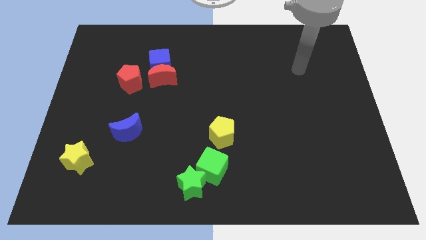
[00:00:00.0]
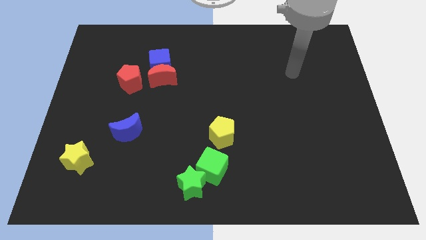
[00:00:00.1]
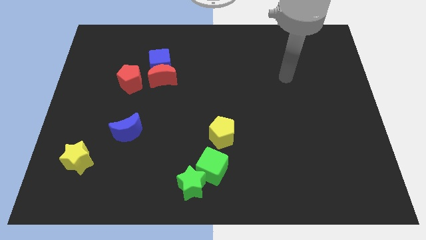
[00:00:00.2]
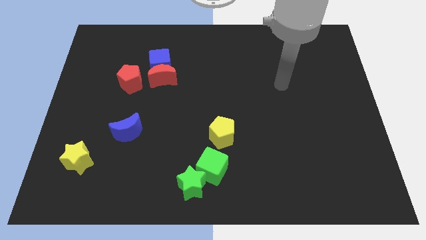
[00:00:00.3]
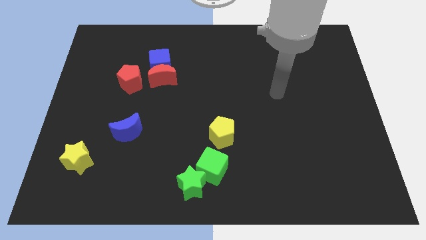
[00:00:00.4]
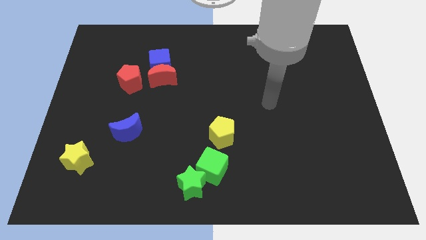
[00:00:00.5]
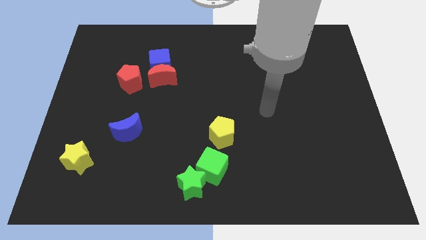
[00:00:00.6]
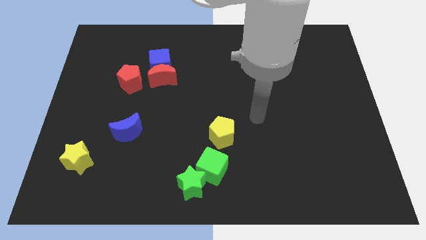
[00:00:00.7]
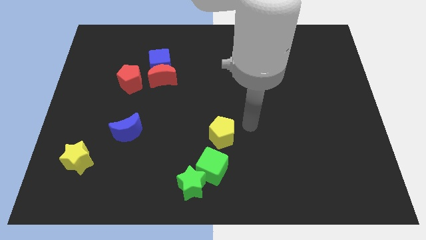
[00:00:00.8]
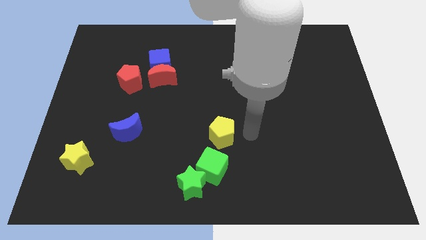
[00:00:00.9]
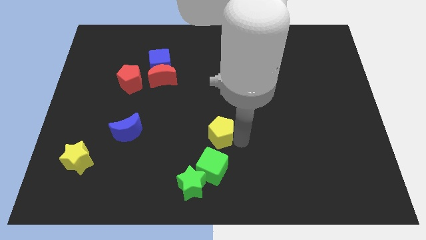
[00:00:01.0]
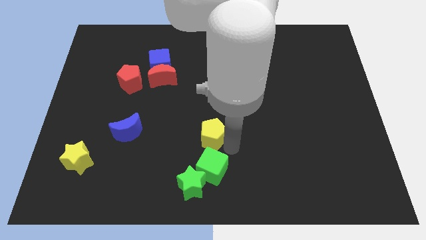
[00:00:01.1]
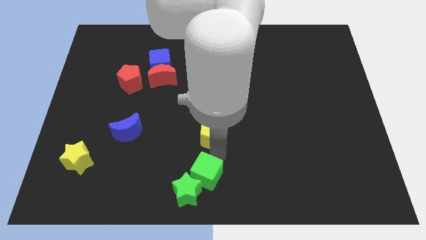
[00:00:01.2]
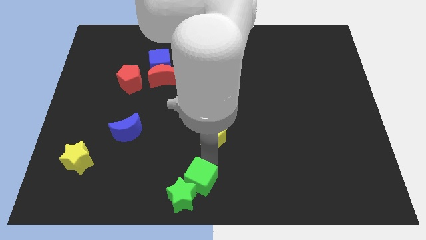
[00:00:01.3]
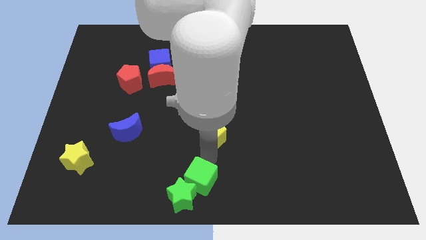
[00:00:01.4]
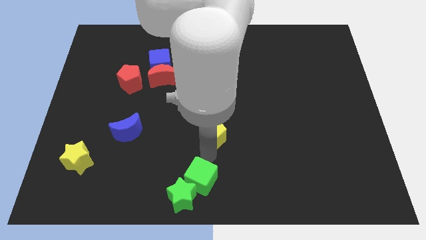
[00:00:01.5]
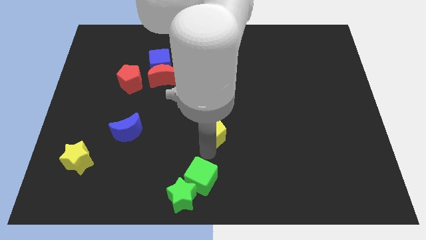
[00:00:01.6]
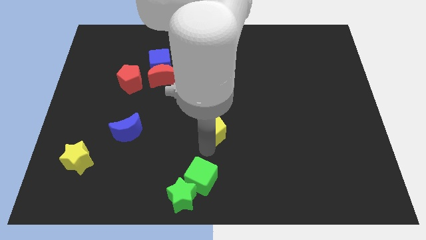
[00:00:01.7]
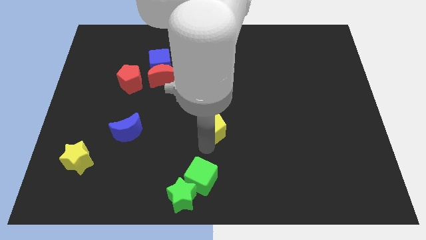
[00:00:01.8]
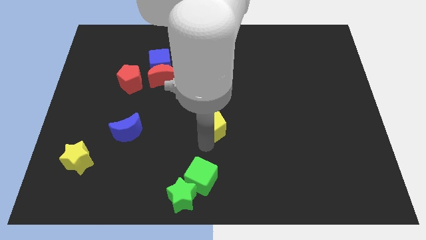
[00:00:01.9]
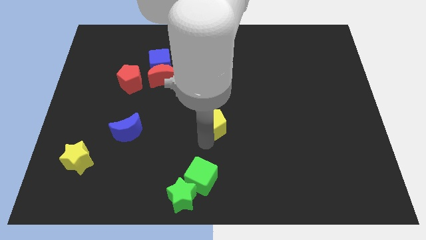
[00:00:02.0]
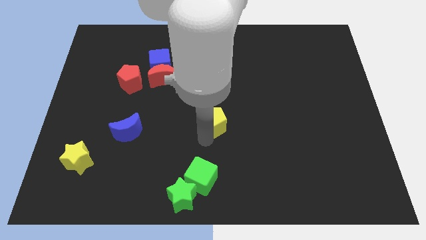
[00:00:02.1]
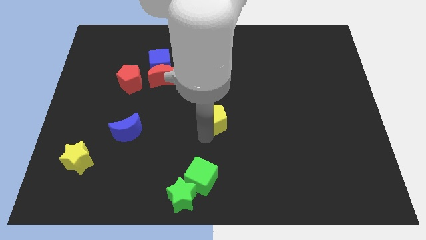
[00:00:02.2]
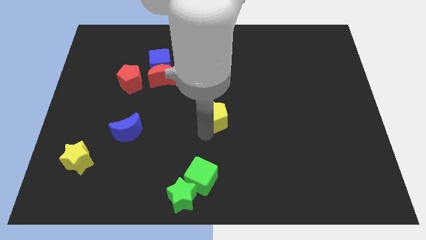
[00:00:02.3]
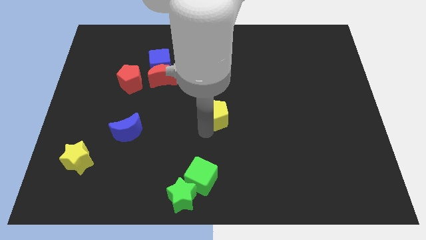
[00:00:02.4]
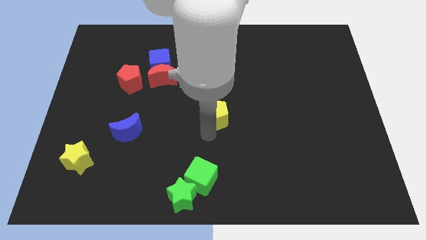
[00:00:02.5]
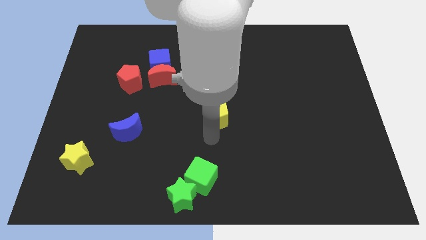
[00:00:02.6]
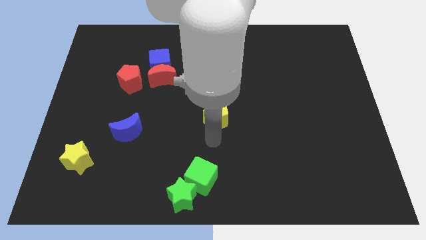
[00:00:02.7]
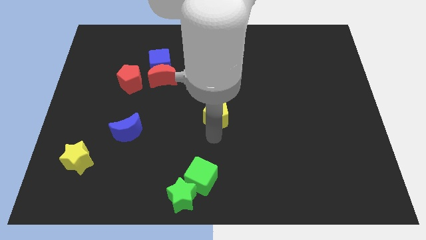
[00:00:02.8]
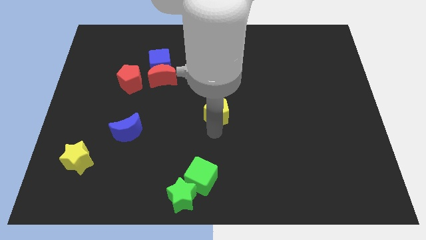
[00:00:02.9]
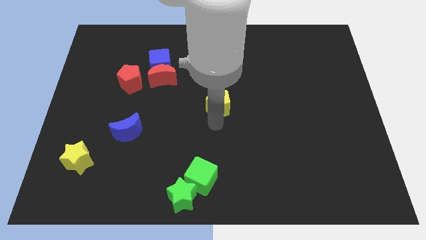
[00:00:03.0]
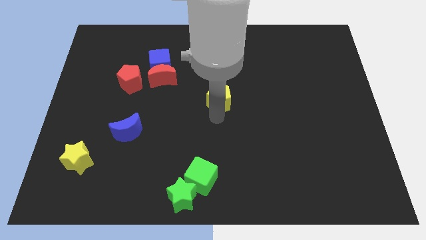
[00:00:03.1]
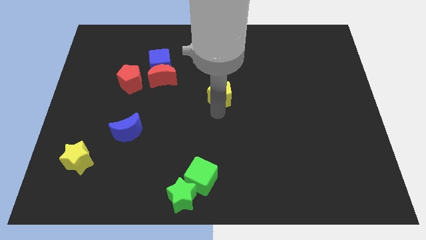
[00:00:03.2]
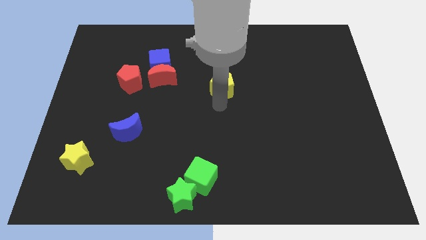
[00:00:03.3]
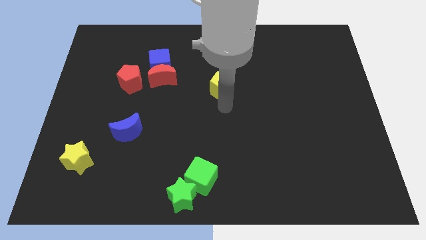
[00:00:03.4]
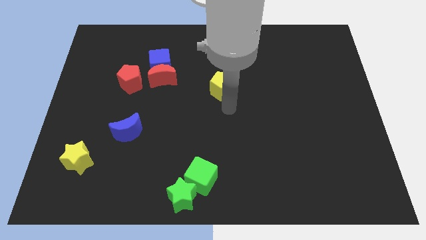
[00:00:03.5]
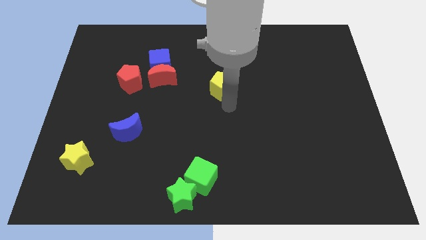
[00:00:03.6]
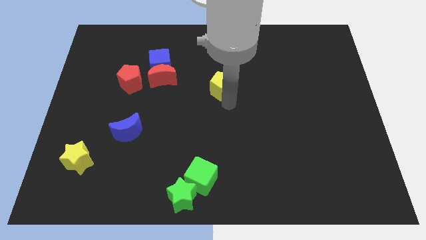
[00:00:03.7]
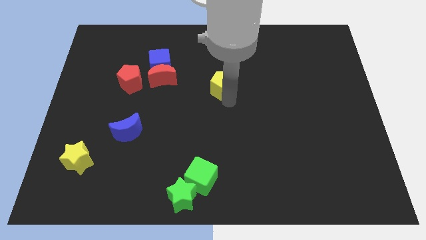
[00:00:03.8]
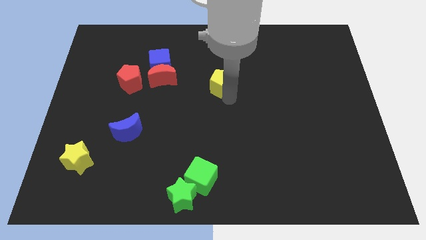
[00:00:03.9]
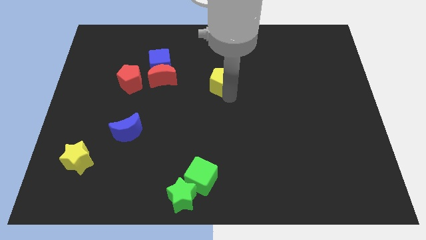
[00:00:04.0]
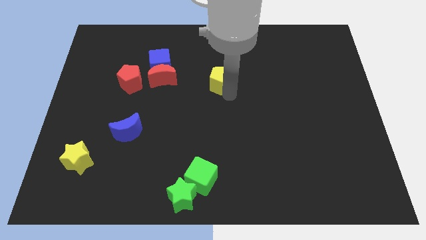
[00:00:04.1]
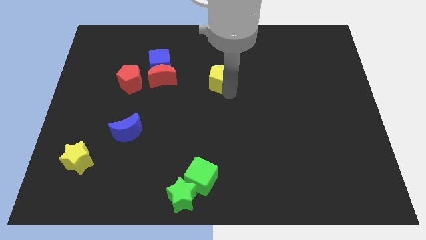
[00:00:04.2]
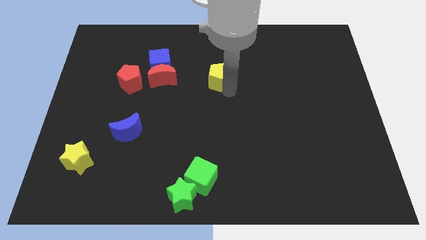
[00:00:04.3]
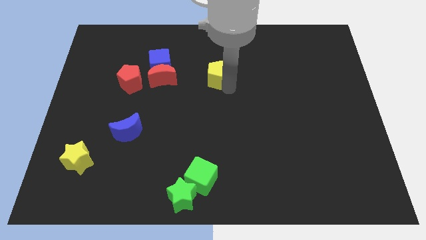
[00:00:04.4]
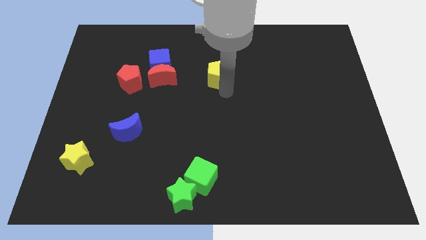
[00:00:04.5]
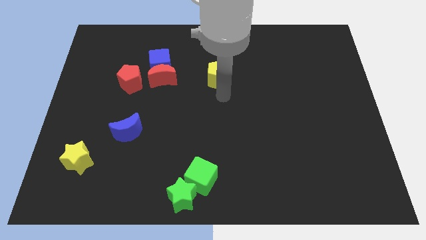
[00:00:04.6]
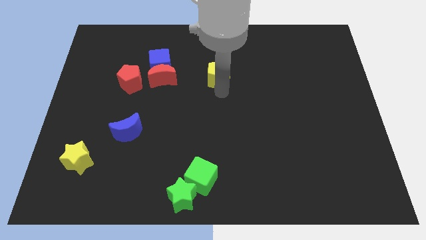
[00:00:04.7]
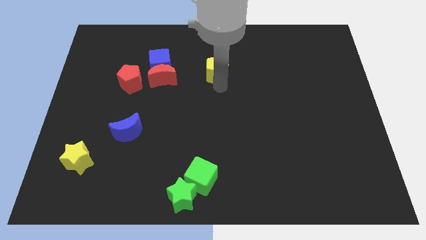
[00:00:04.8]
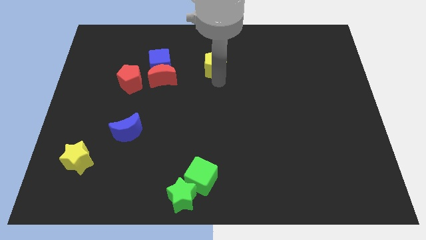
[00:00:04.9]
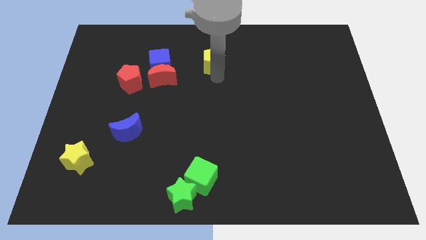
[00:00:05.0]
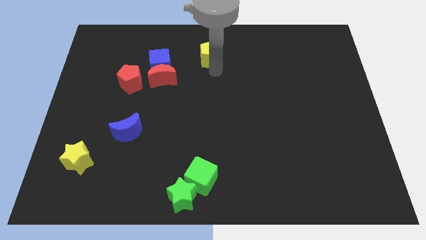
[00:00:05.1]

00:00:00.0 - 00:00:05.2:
slide the yellow pentagon to the top
